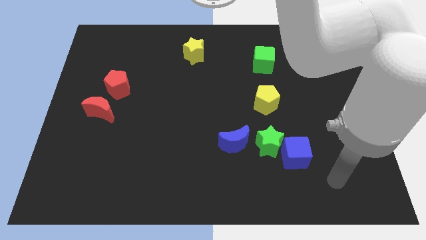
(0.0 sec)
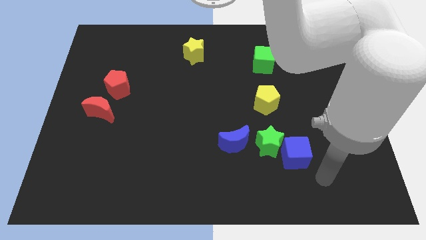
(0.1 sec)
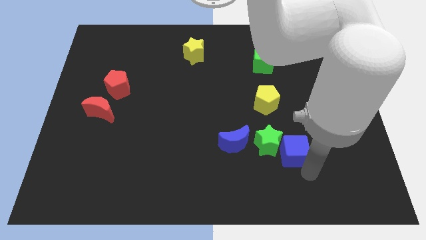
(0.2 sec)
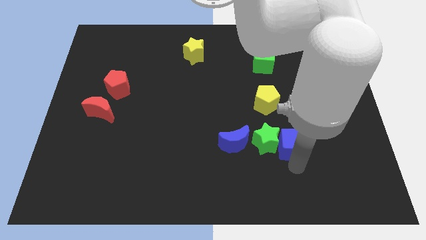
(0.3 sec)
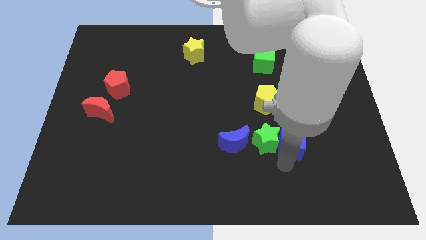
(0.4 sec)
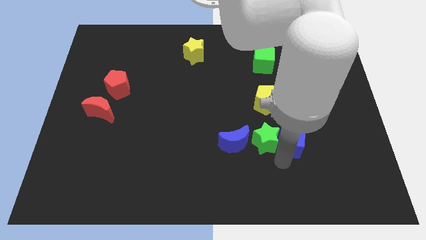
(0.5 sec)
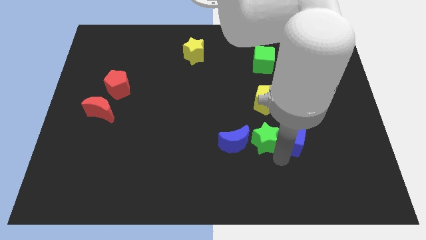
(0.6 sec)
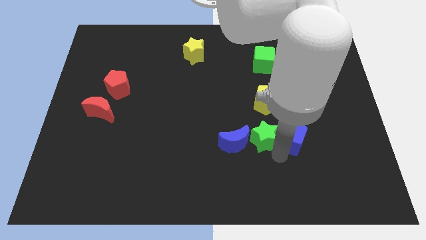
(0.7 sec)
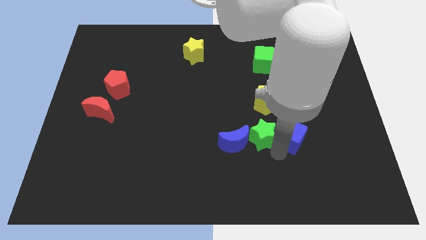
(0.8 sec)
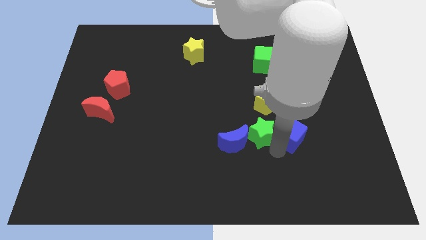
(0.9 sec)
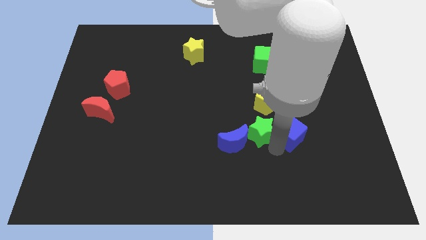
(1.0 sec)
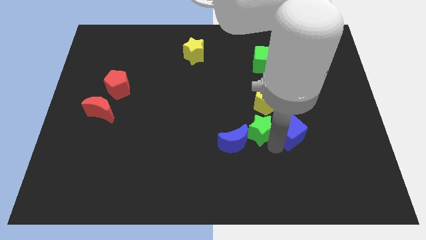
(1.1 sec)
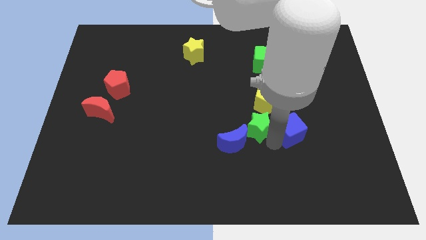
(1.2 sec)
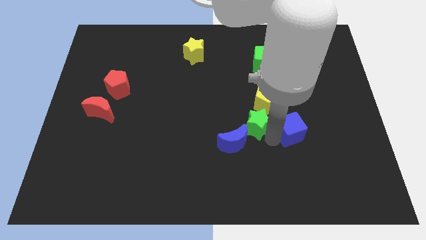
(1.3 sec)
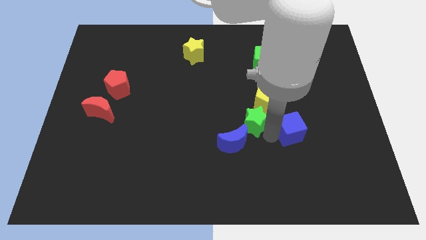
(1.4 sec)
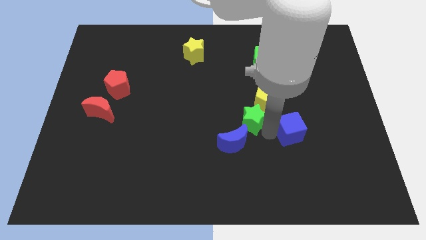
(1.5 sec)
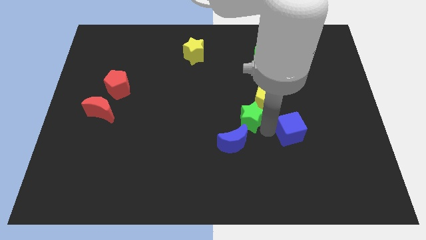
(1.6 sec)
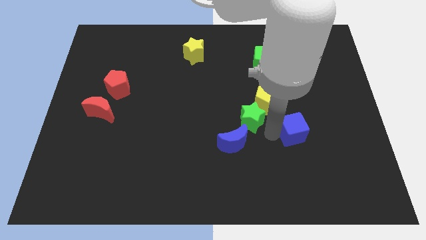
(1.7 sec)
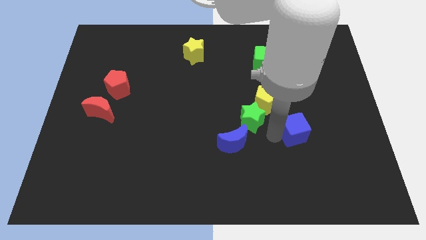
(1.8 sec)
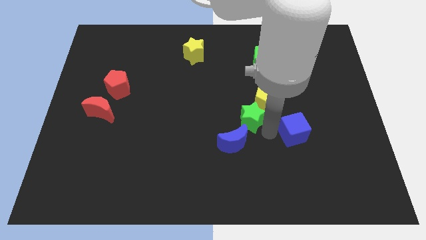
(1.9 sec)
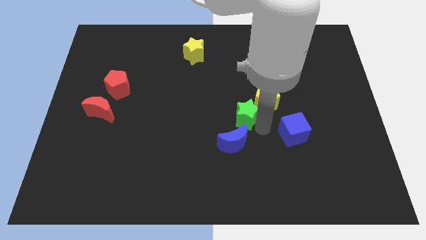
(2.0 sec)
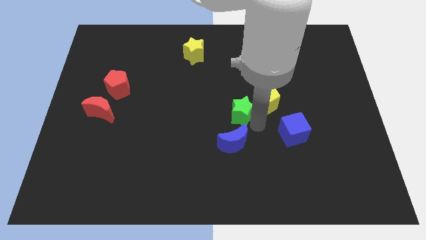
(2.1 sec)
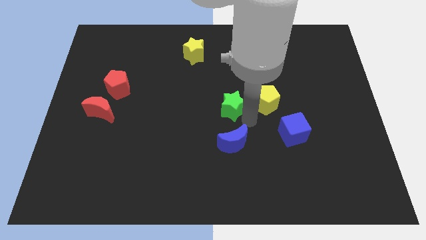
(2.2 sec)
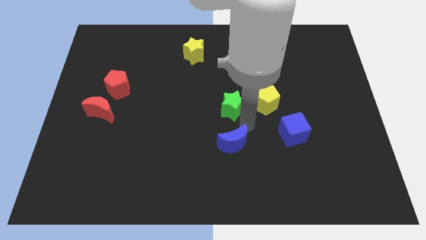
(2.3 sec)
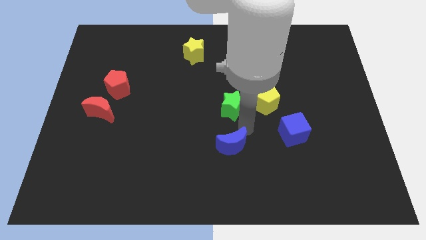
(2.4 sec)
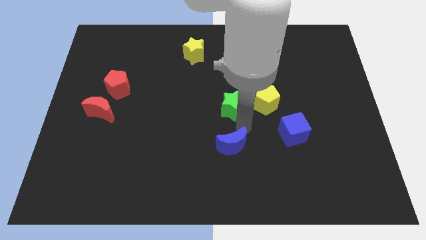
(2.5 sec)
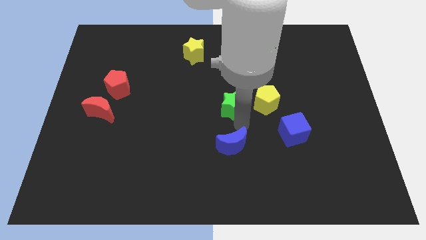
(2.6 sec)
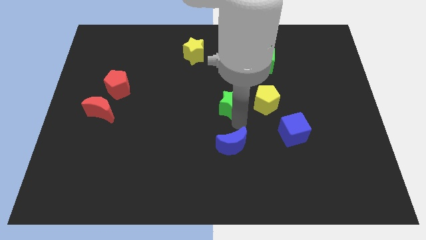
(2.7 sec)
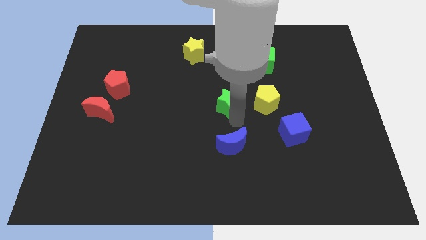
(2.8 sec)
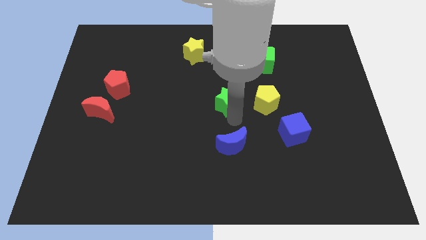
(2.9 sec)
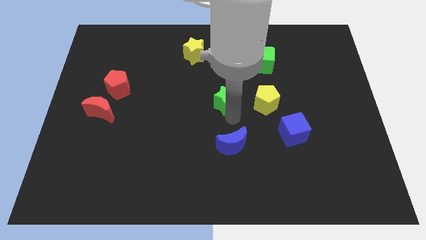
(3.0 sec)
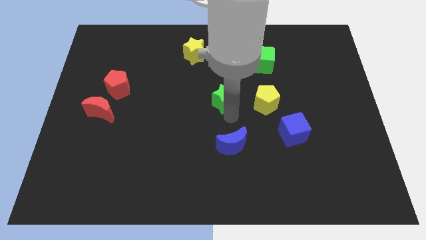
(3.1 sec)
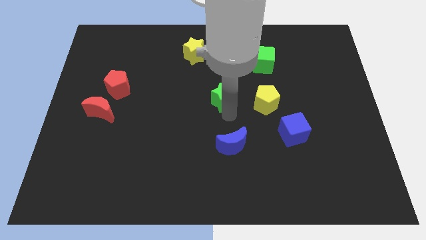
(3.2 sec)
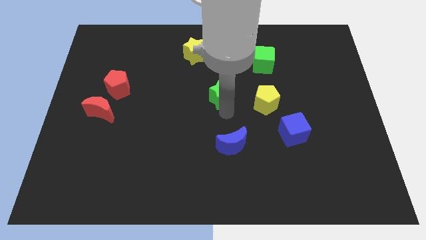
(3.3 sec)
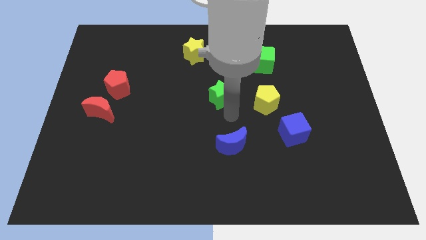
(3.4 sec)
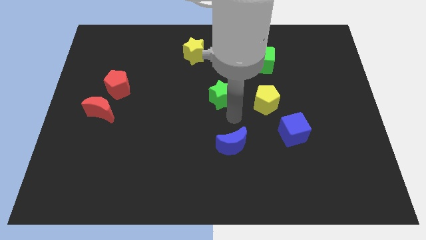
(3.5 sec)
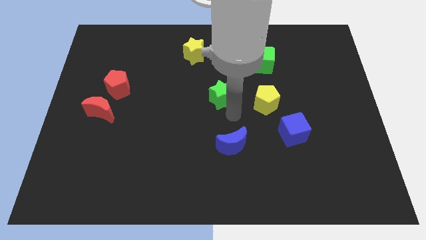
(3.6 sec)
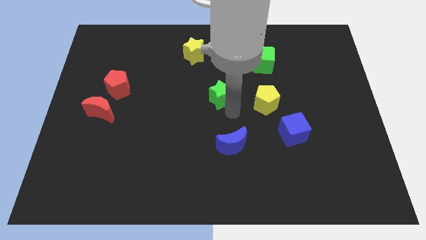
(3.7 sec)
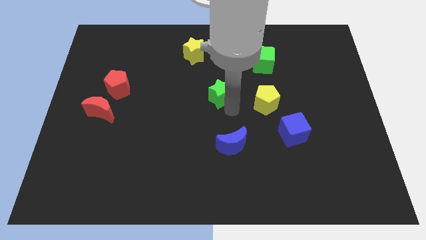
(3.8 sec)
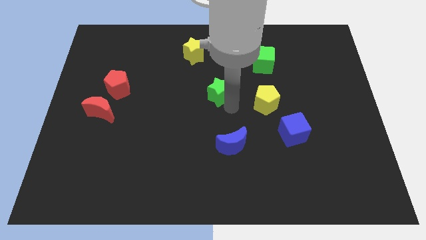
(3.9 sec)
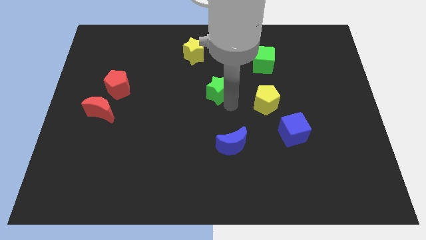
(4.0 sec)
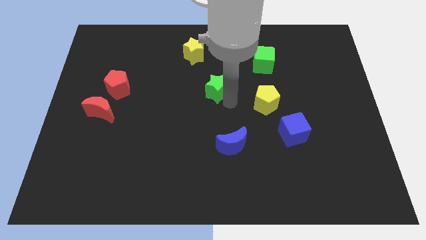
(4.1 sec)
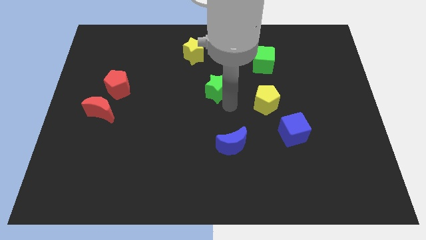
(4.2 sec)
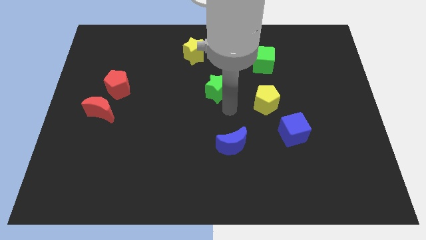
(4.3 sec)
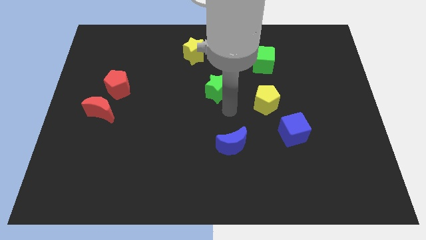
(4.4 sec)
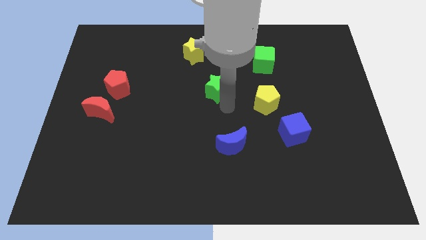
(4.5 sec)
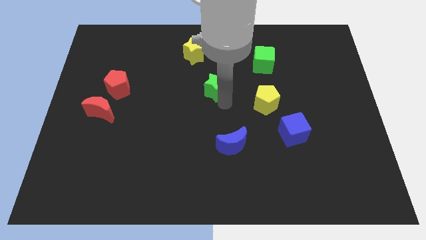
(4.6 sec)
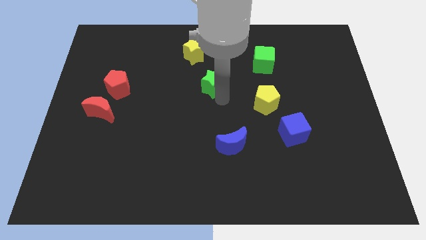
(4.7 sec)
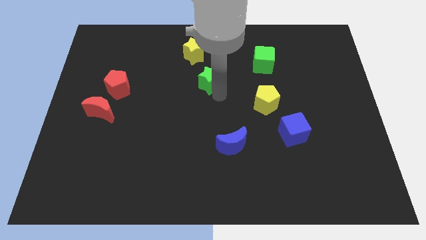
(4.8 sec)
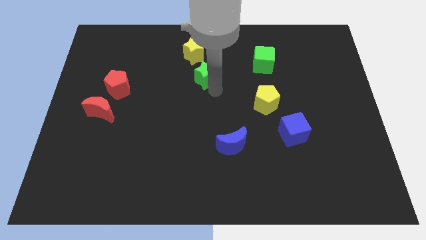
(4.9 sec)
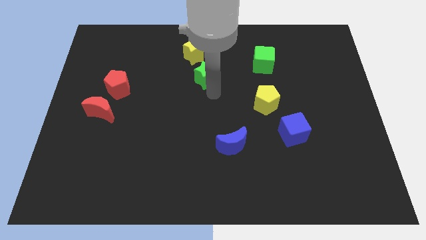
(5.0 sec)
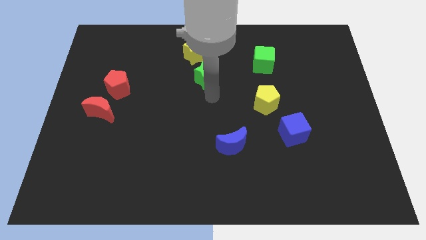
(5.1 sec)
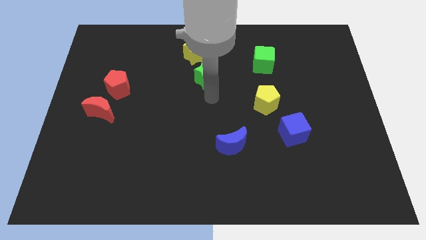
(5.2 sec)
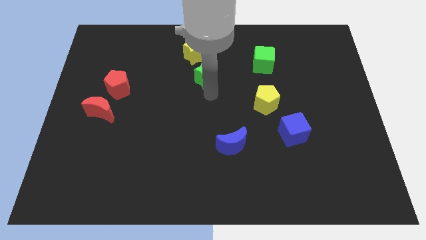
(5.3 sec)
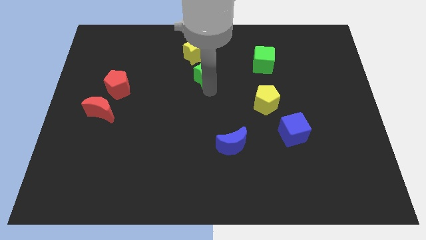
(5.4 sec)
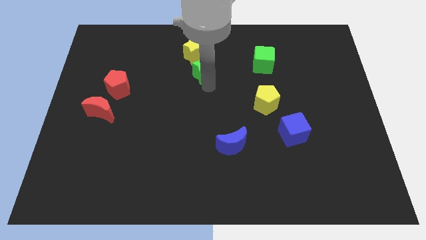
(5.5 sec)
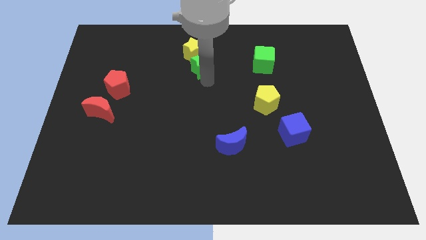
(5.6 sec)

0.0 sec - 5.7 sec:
put the green star close to the yellow star
